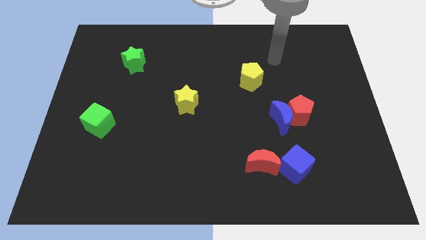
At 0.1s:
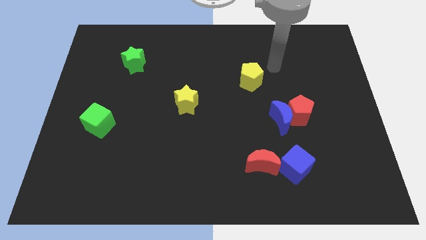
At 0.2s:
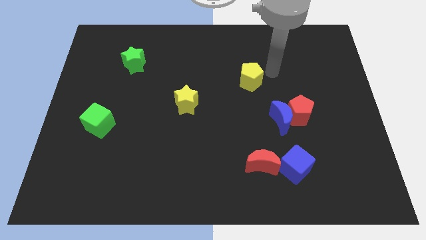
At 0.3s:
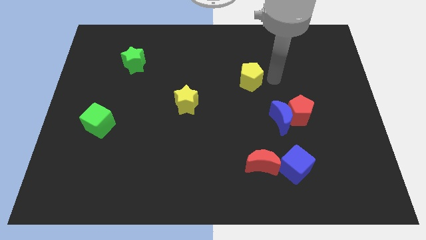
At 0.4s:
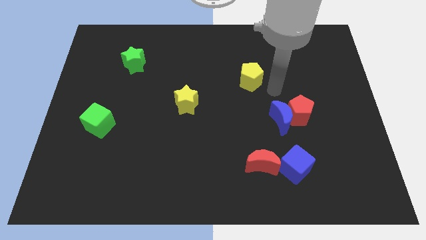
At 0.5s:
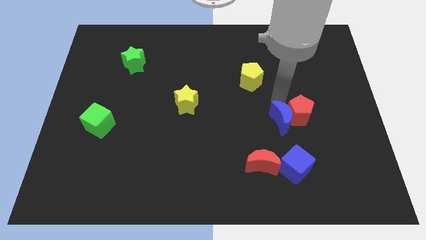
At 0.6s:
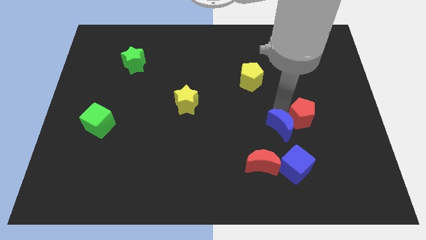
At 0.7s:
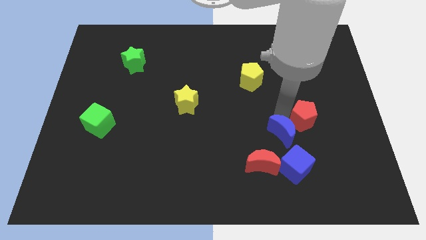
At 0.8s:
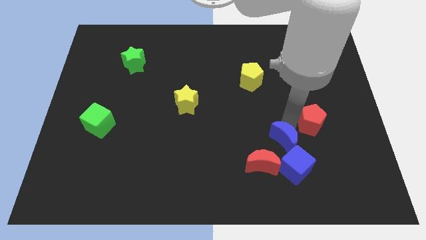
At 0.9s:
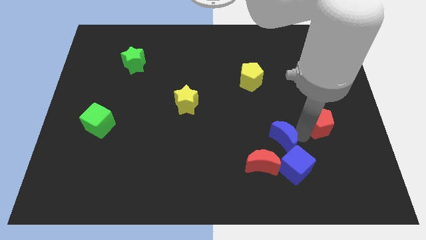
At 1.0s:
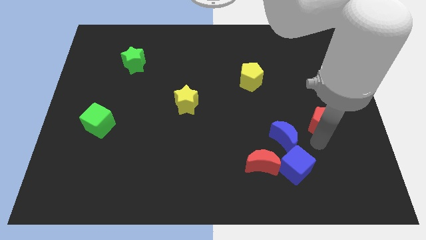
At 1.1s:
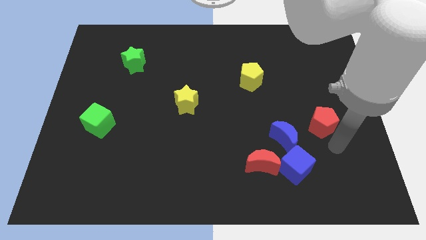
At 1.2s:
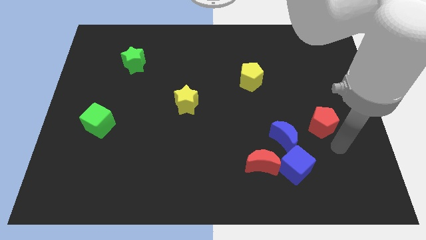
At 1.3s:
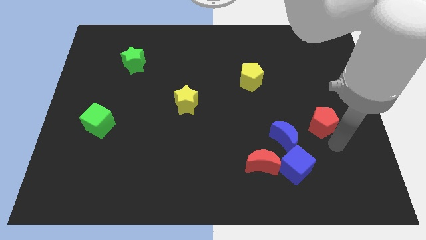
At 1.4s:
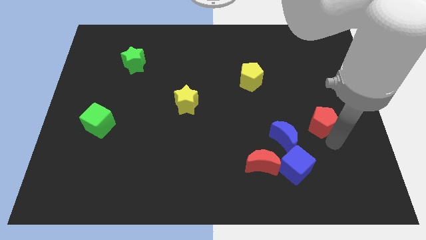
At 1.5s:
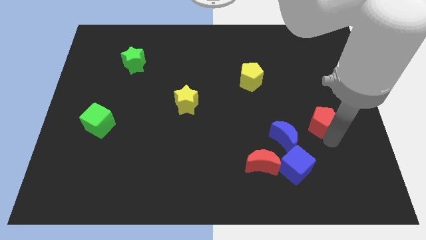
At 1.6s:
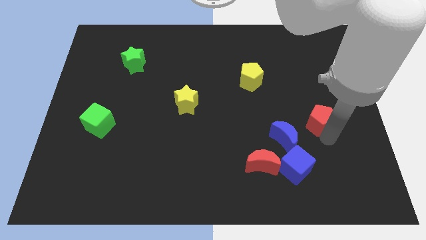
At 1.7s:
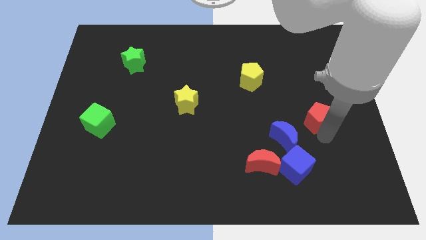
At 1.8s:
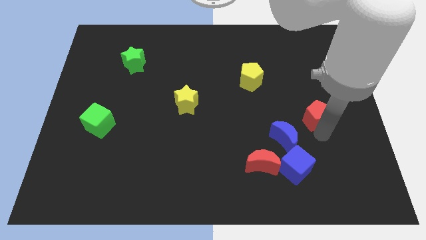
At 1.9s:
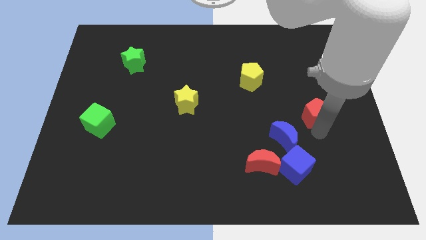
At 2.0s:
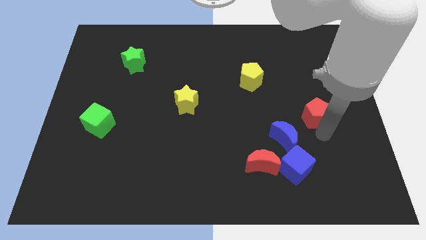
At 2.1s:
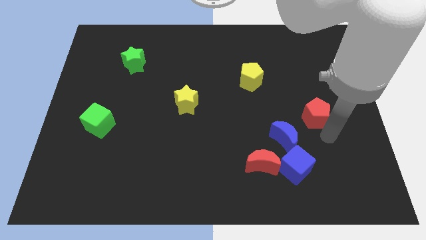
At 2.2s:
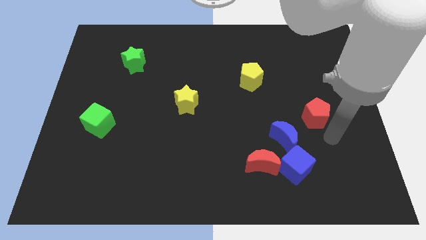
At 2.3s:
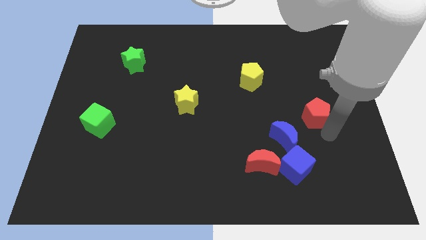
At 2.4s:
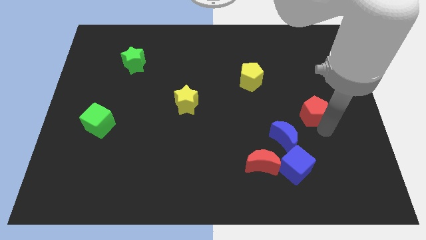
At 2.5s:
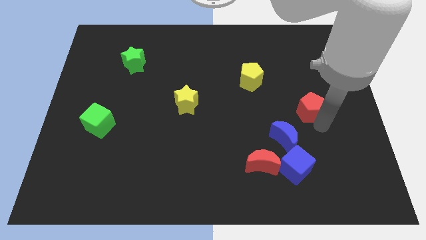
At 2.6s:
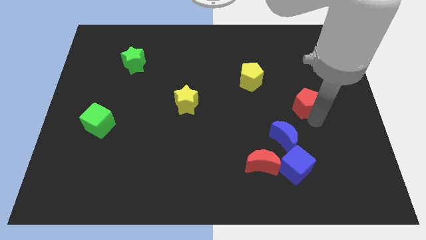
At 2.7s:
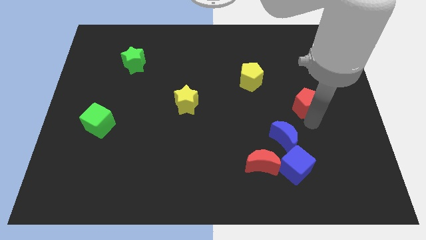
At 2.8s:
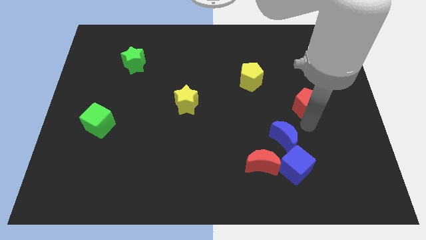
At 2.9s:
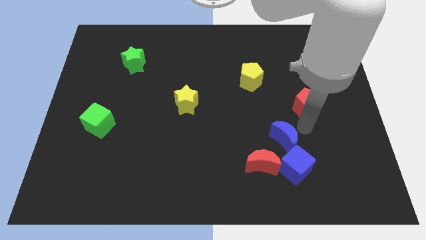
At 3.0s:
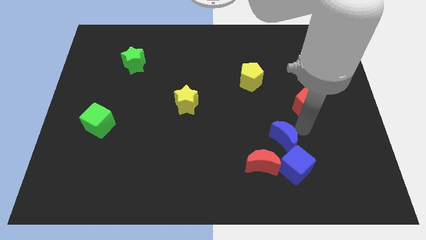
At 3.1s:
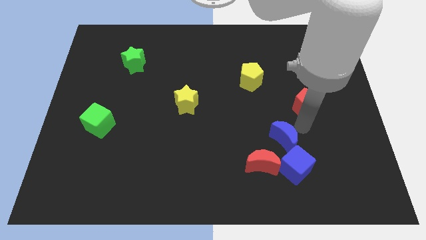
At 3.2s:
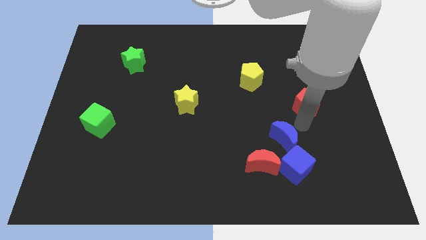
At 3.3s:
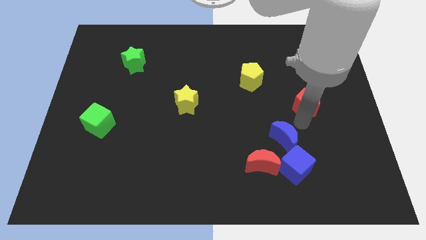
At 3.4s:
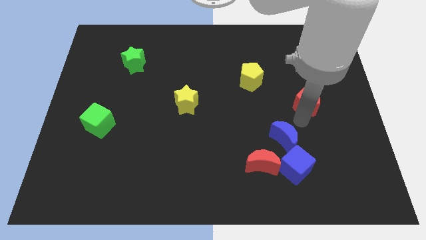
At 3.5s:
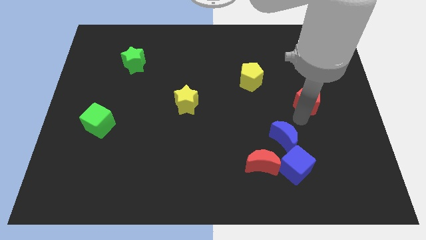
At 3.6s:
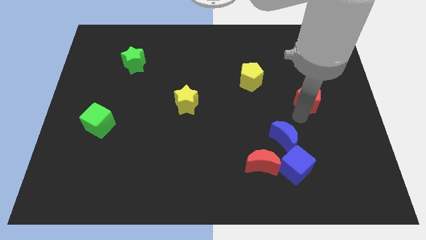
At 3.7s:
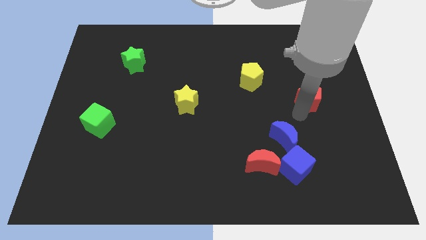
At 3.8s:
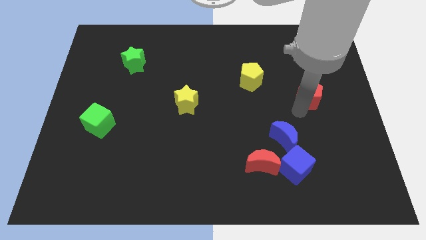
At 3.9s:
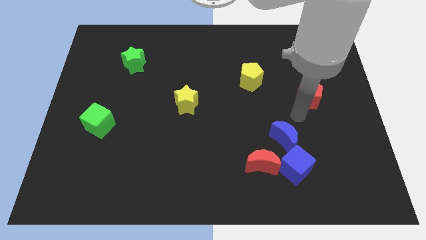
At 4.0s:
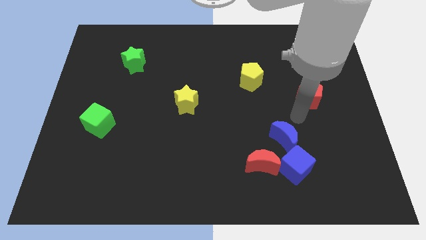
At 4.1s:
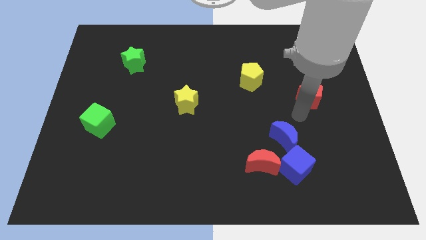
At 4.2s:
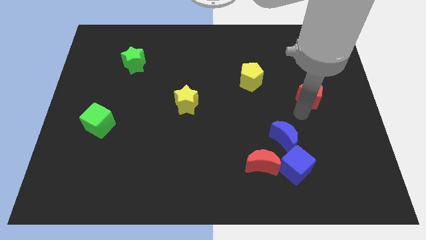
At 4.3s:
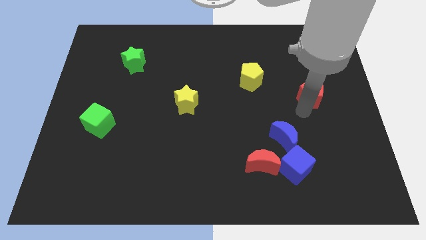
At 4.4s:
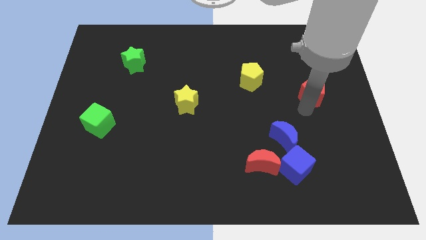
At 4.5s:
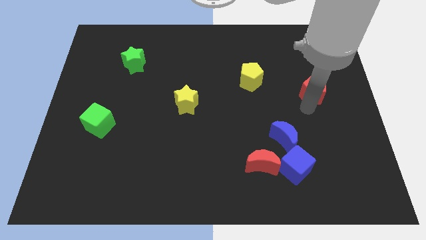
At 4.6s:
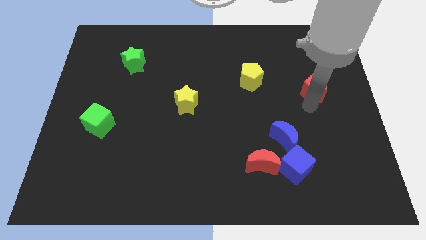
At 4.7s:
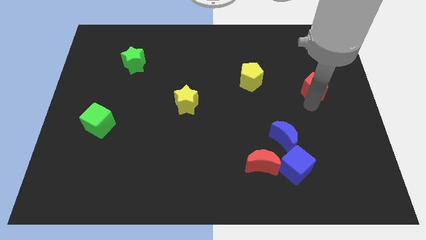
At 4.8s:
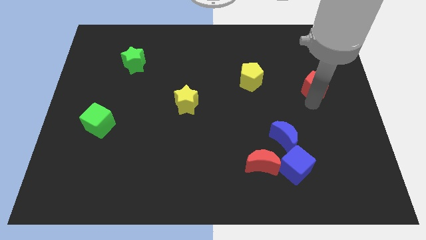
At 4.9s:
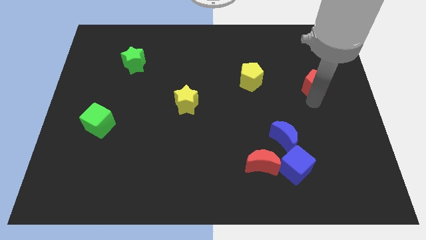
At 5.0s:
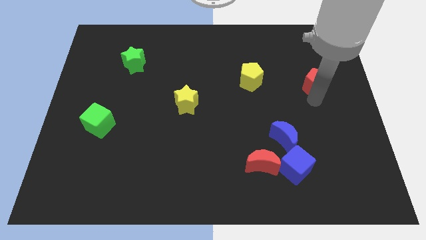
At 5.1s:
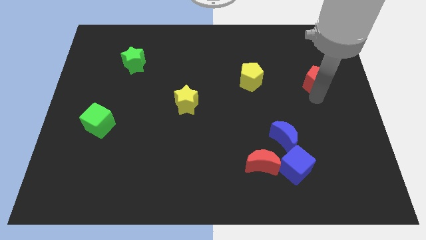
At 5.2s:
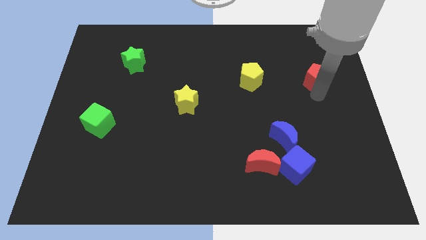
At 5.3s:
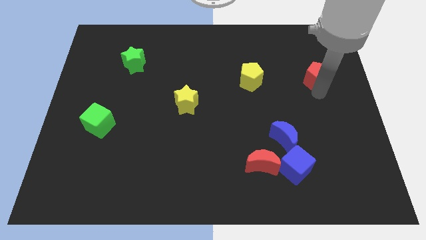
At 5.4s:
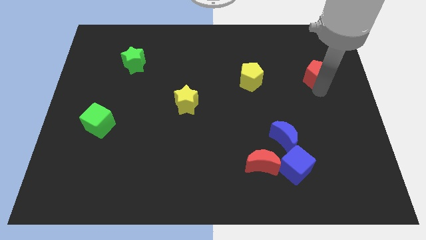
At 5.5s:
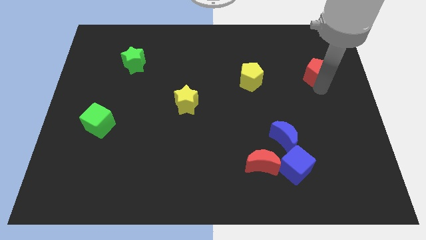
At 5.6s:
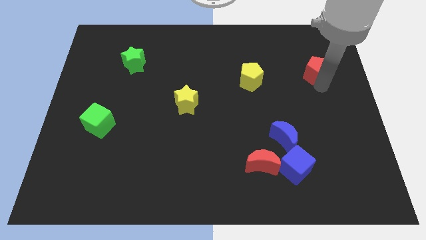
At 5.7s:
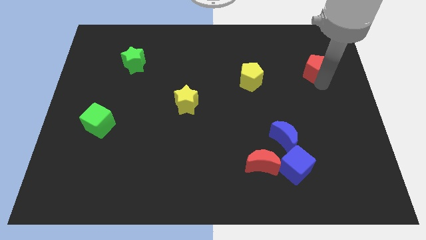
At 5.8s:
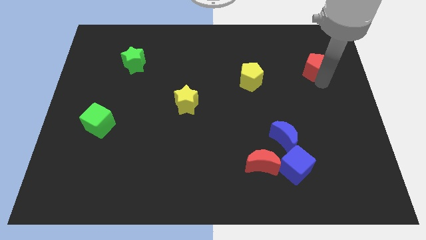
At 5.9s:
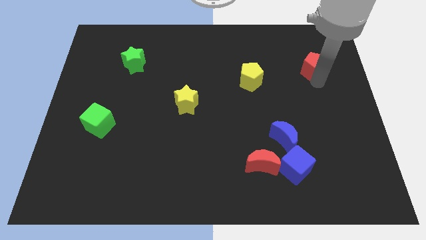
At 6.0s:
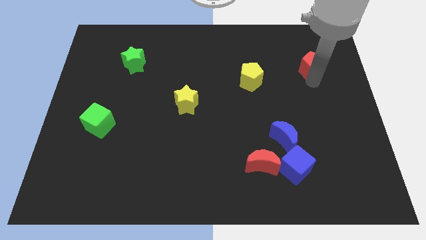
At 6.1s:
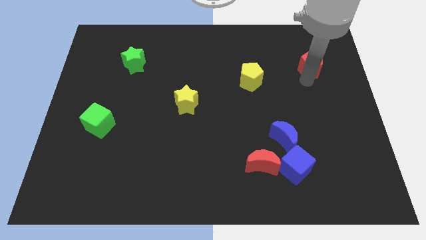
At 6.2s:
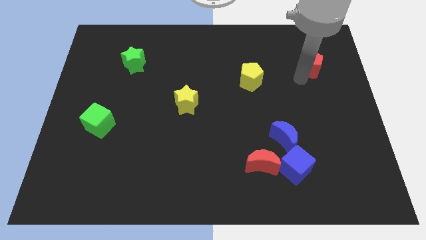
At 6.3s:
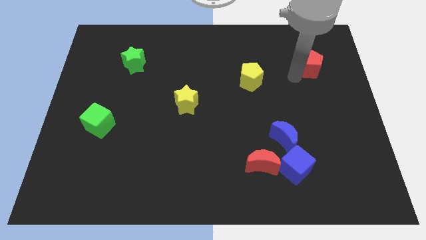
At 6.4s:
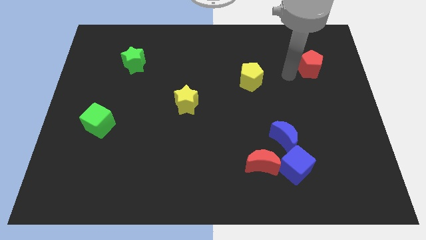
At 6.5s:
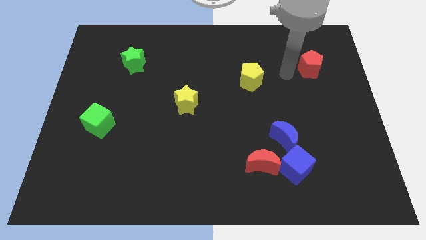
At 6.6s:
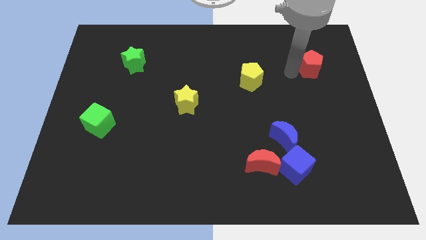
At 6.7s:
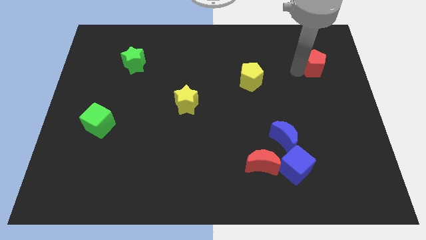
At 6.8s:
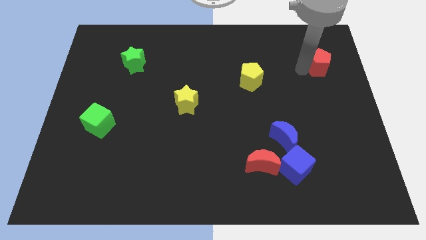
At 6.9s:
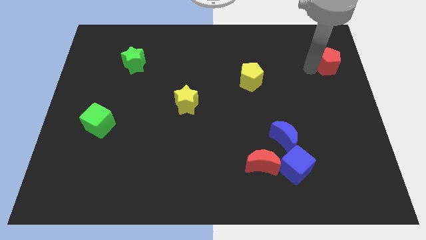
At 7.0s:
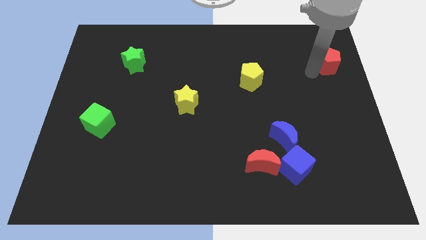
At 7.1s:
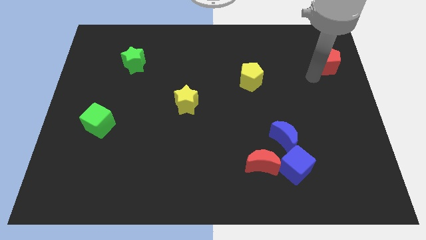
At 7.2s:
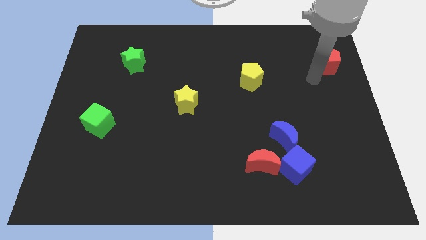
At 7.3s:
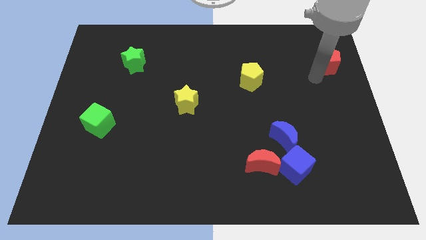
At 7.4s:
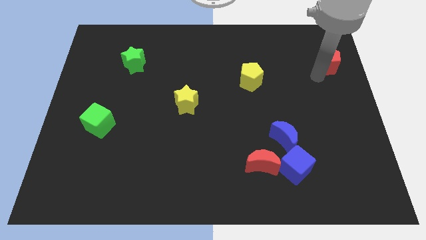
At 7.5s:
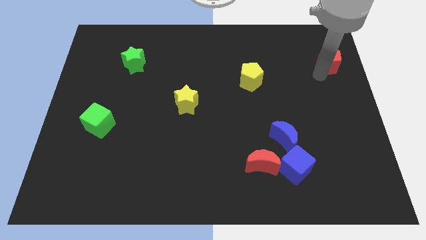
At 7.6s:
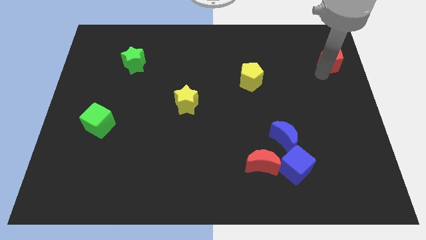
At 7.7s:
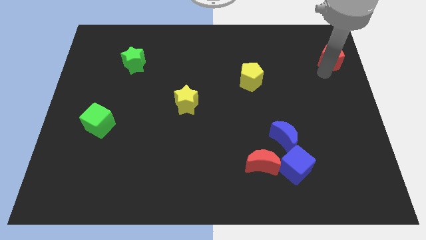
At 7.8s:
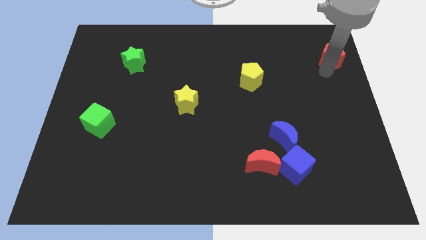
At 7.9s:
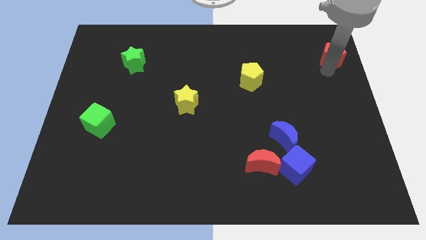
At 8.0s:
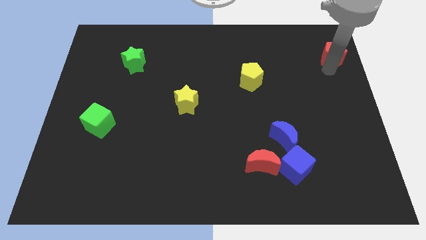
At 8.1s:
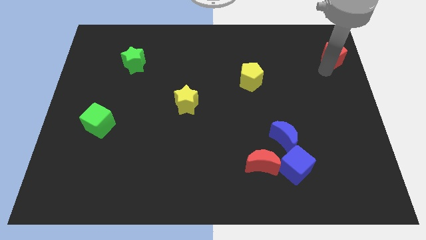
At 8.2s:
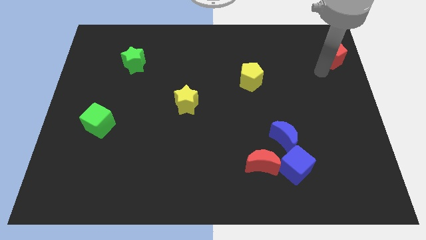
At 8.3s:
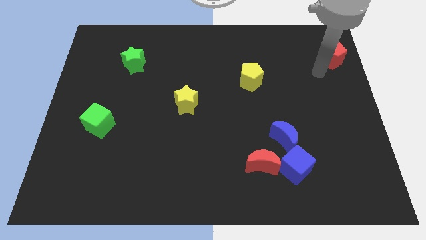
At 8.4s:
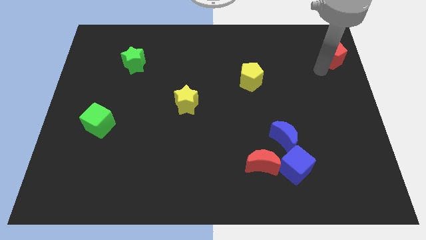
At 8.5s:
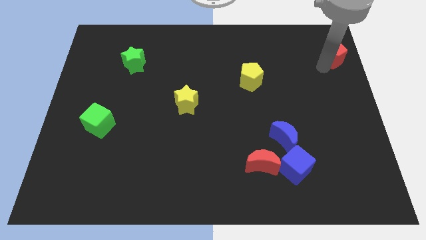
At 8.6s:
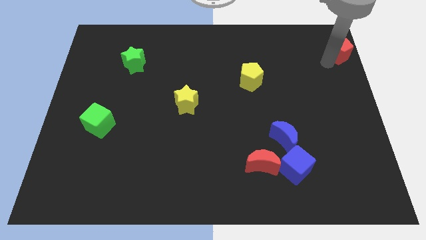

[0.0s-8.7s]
slide the red pentagon to the top right
